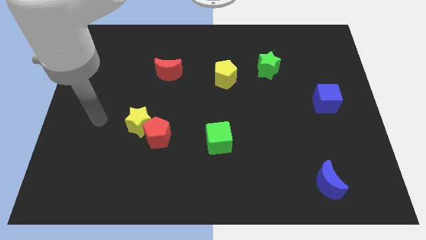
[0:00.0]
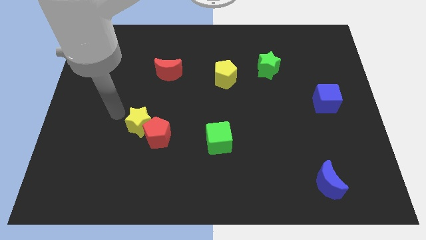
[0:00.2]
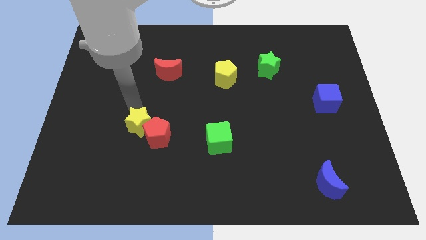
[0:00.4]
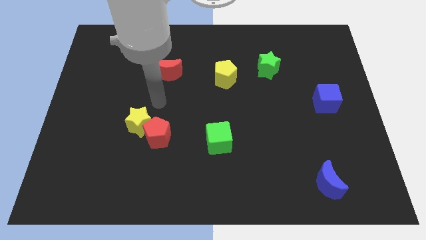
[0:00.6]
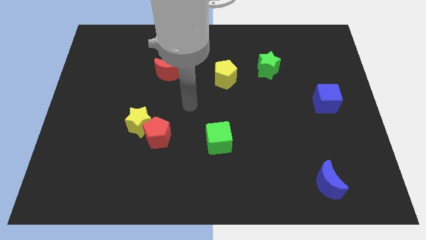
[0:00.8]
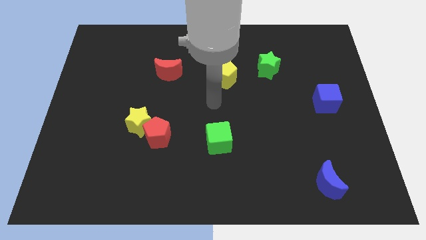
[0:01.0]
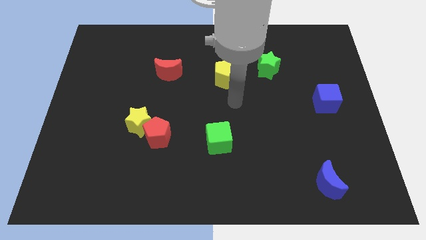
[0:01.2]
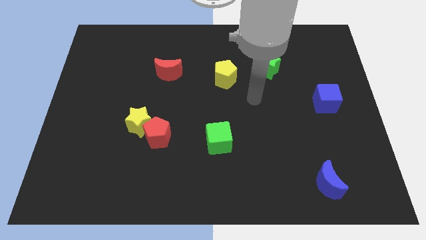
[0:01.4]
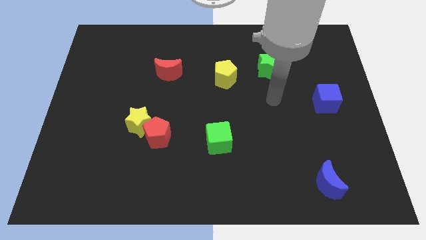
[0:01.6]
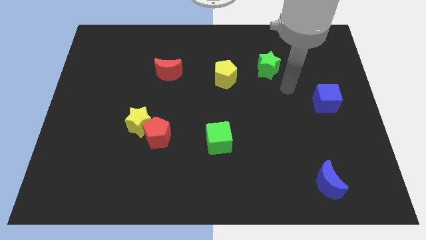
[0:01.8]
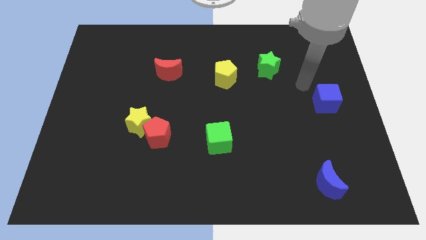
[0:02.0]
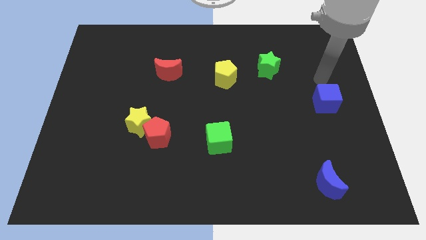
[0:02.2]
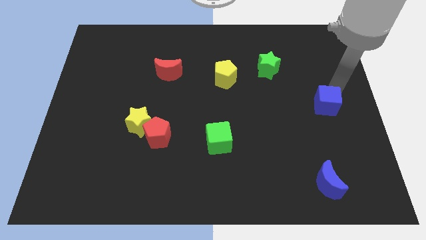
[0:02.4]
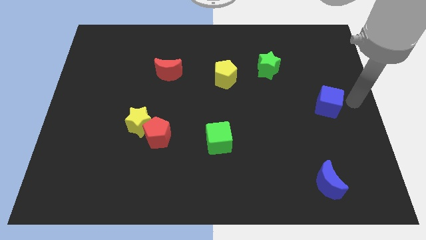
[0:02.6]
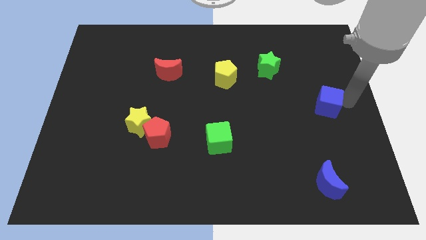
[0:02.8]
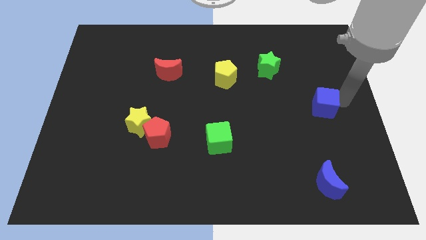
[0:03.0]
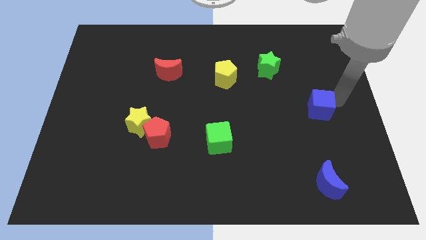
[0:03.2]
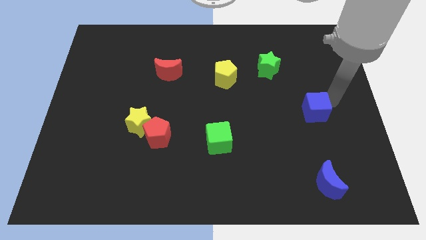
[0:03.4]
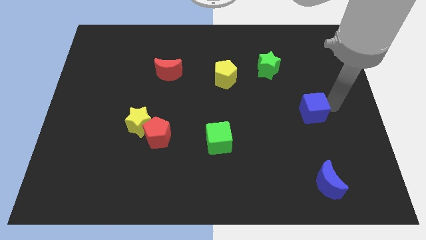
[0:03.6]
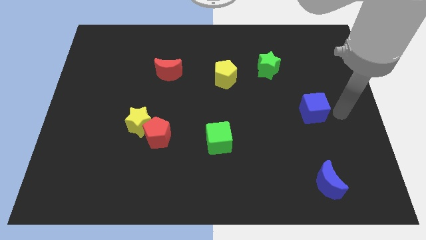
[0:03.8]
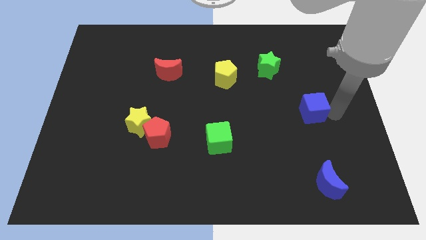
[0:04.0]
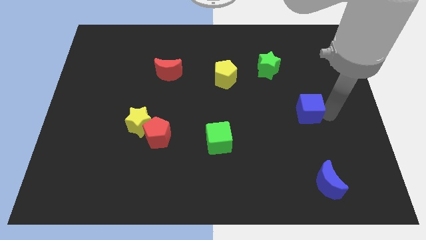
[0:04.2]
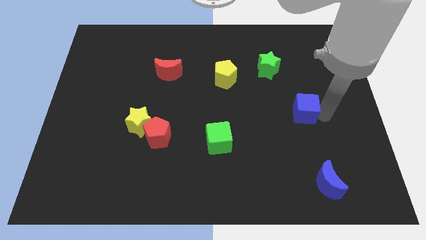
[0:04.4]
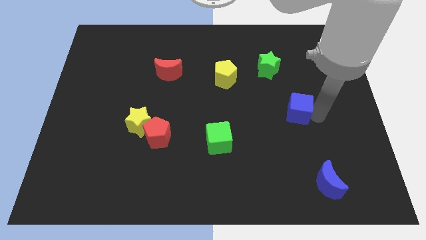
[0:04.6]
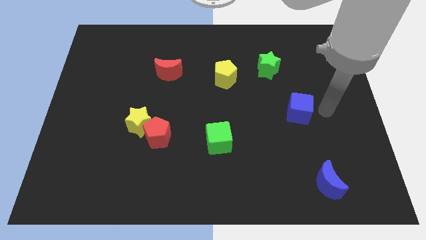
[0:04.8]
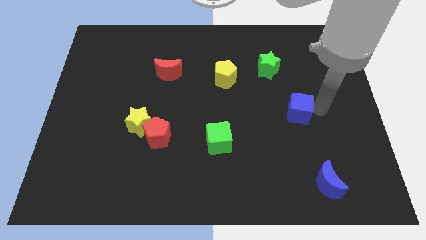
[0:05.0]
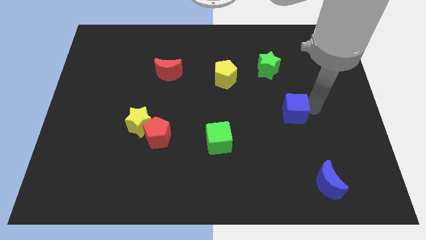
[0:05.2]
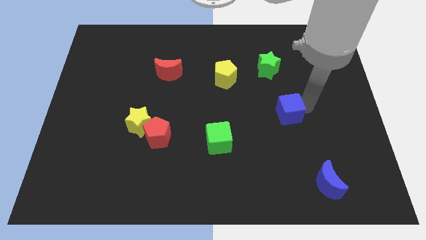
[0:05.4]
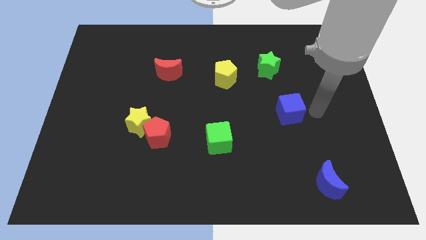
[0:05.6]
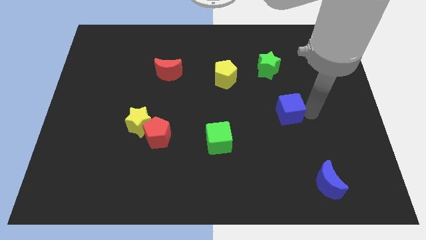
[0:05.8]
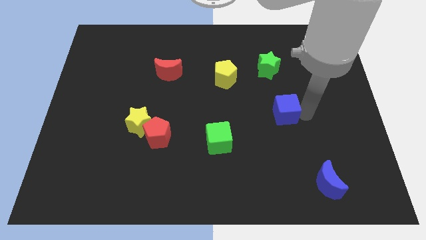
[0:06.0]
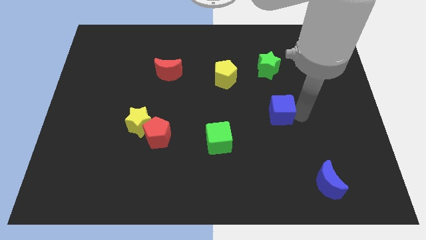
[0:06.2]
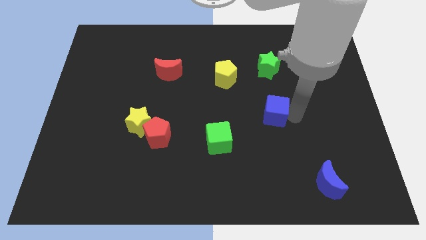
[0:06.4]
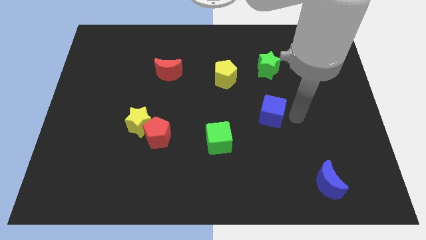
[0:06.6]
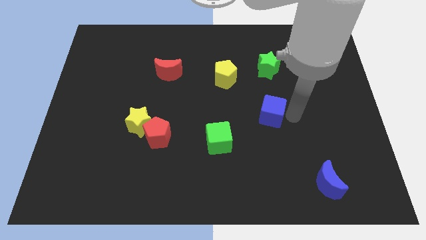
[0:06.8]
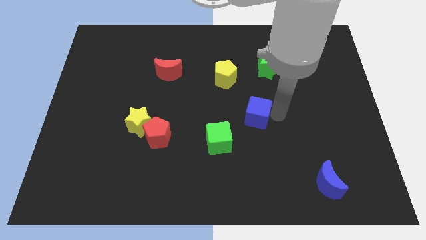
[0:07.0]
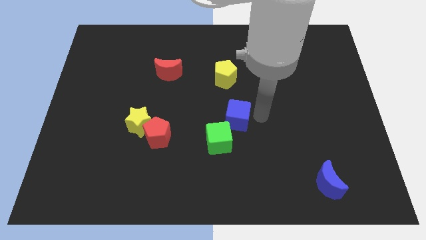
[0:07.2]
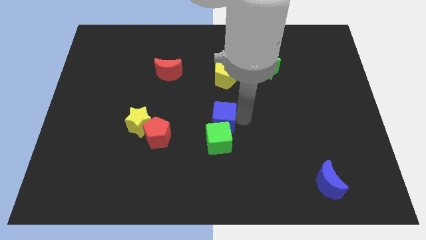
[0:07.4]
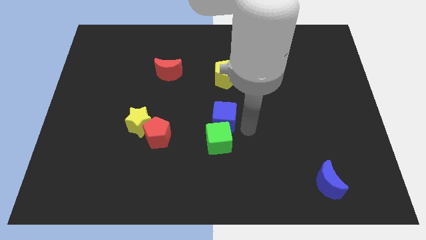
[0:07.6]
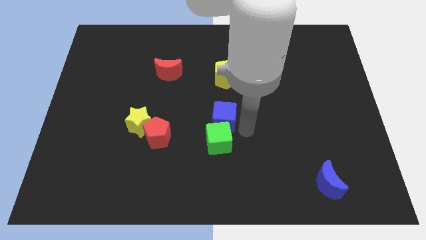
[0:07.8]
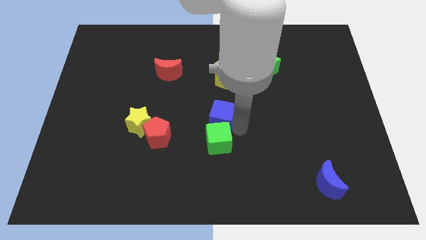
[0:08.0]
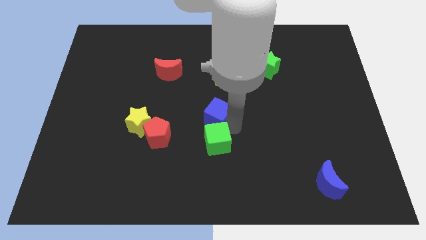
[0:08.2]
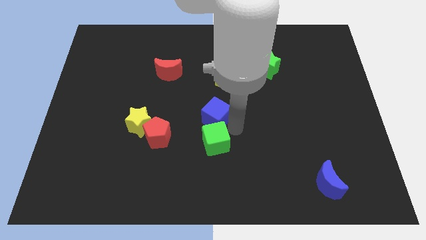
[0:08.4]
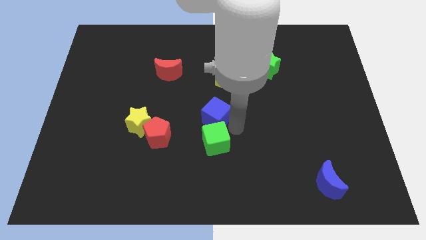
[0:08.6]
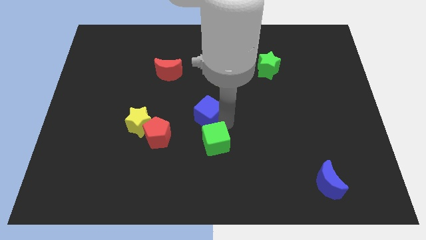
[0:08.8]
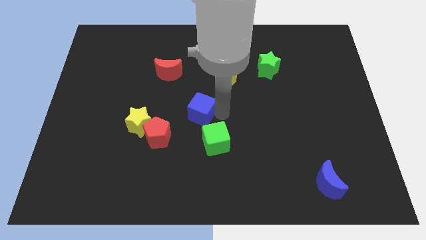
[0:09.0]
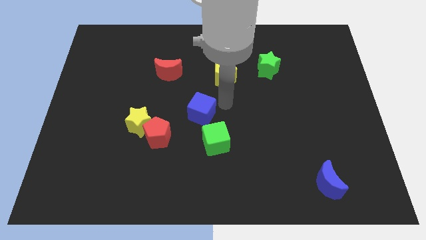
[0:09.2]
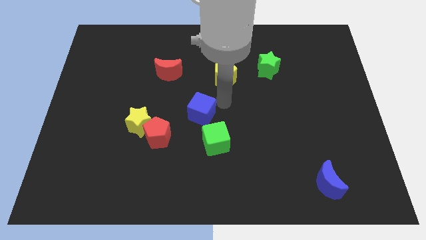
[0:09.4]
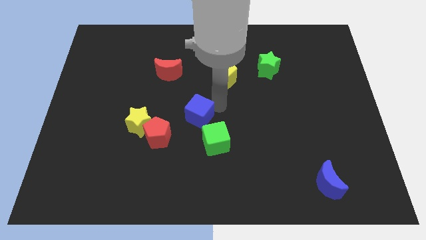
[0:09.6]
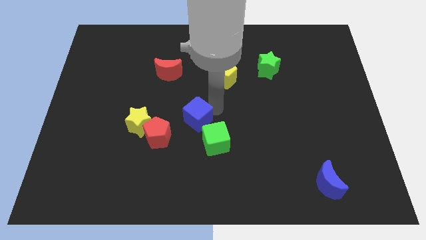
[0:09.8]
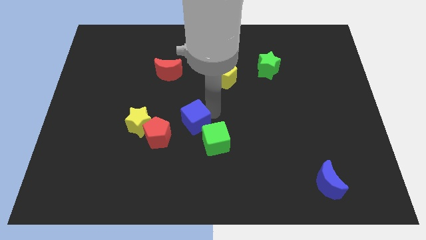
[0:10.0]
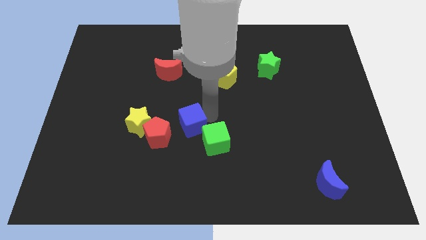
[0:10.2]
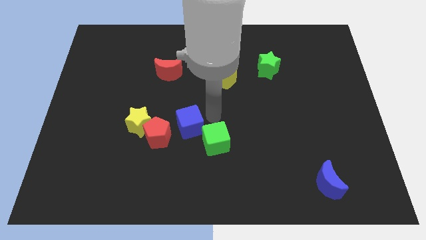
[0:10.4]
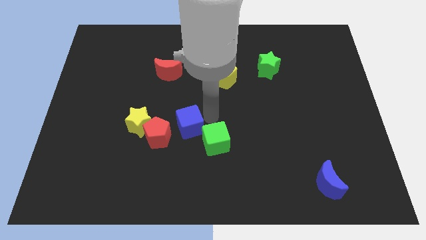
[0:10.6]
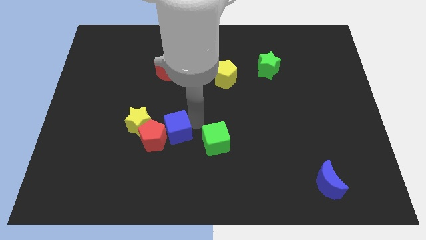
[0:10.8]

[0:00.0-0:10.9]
put the blue cube to the red pentagon

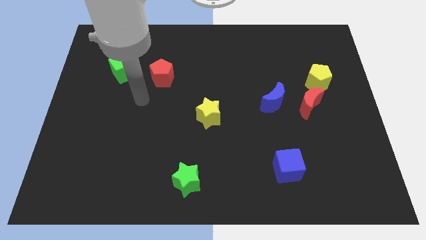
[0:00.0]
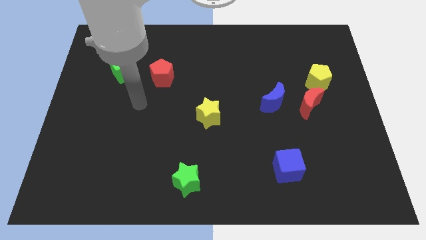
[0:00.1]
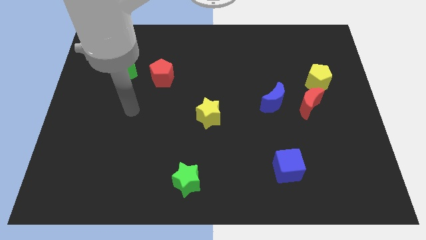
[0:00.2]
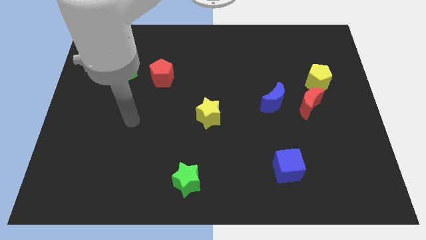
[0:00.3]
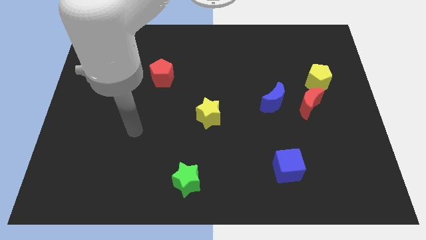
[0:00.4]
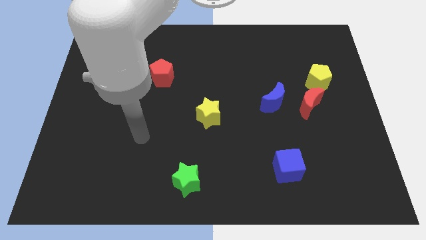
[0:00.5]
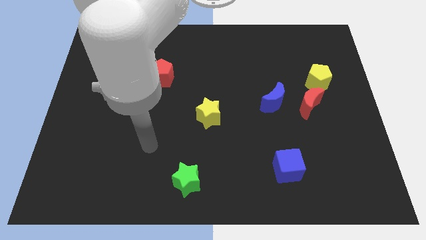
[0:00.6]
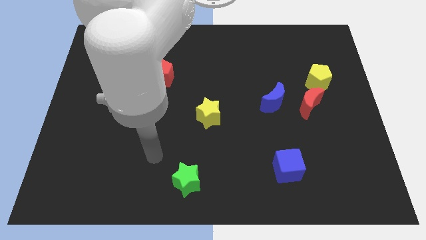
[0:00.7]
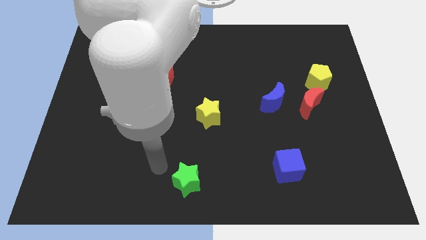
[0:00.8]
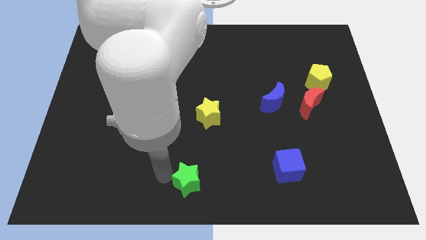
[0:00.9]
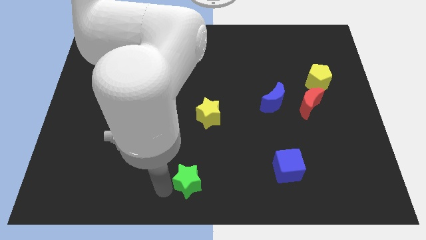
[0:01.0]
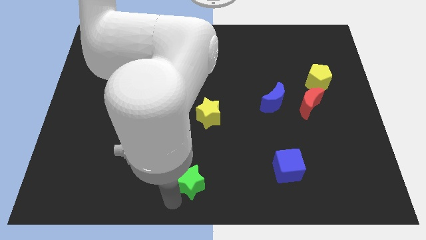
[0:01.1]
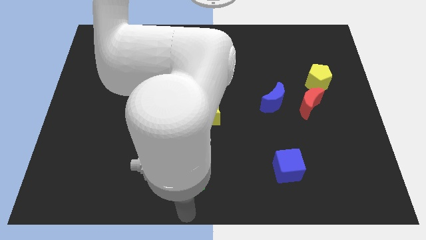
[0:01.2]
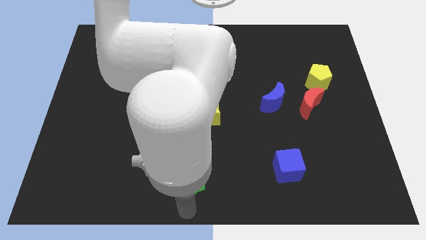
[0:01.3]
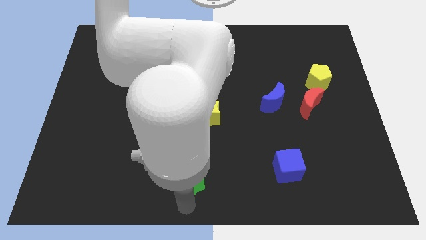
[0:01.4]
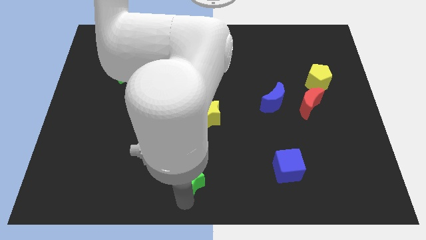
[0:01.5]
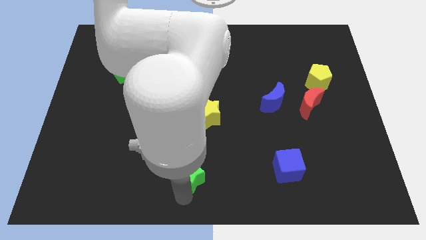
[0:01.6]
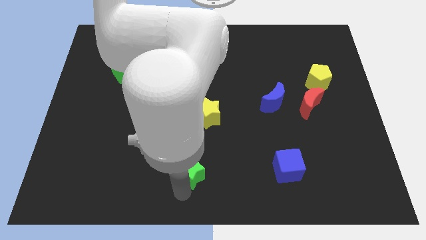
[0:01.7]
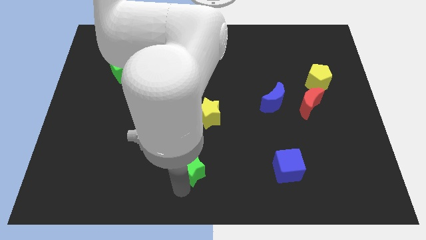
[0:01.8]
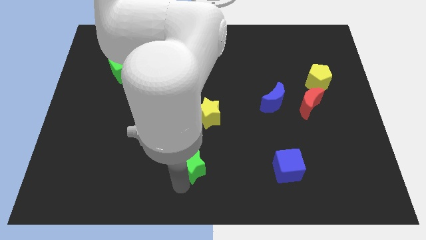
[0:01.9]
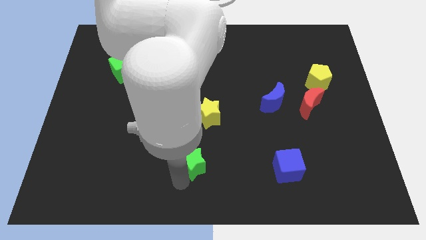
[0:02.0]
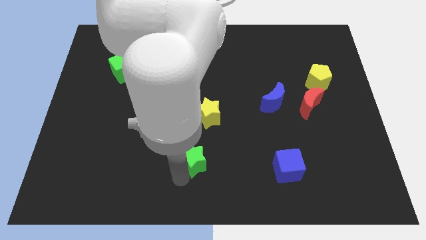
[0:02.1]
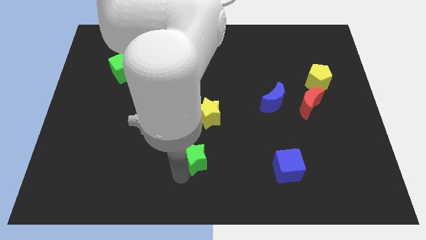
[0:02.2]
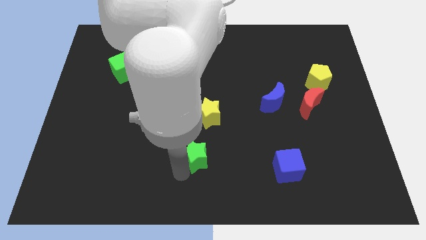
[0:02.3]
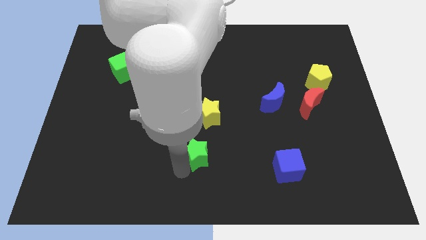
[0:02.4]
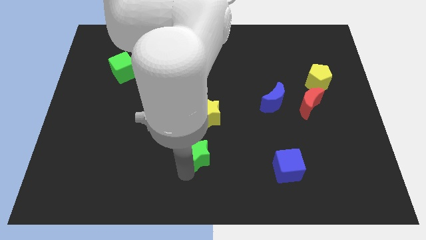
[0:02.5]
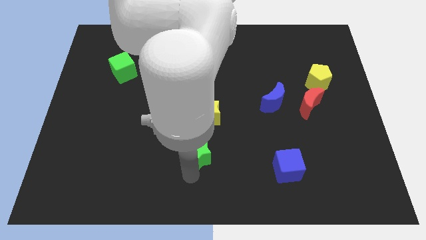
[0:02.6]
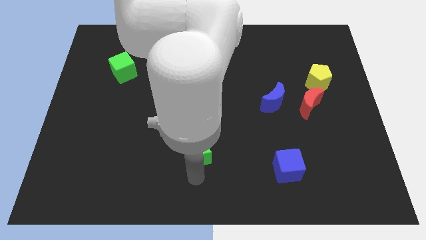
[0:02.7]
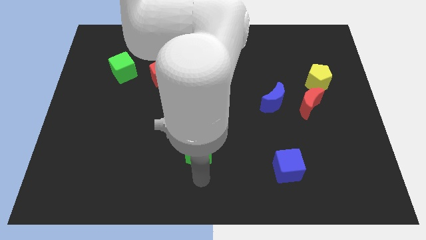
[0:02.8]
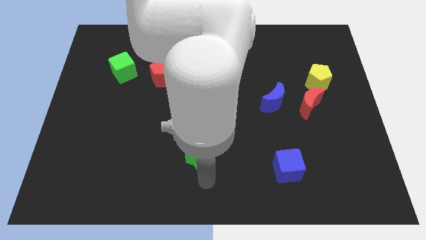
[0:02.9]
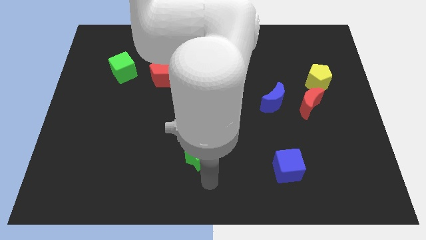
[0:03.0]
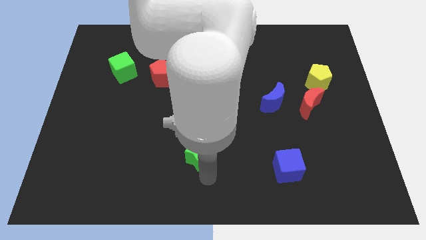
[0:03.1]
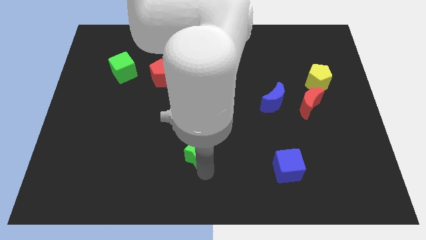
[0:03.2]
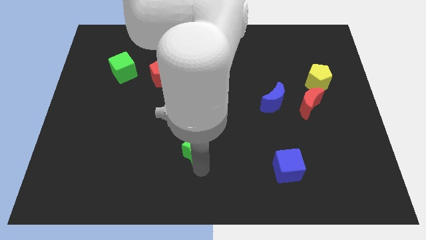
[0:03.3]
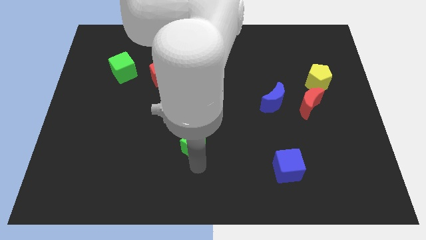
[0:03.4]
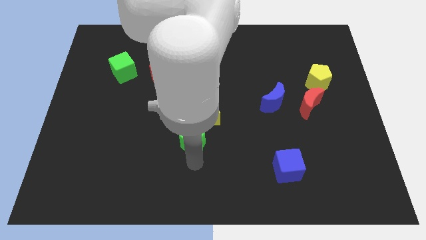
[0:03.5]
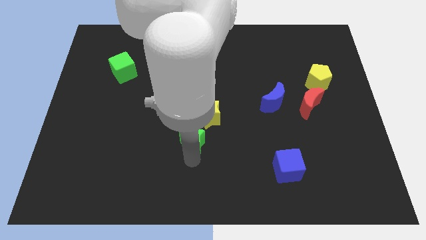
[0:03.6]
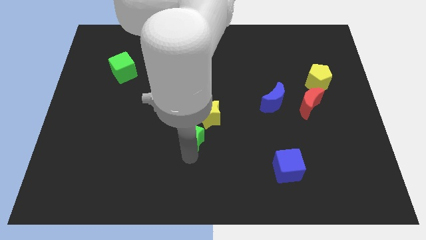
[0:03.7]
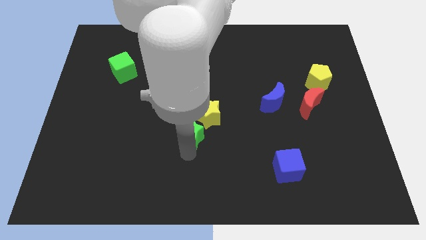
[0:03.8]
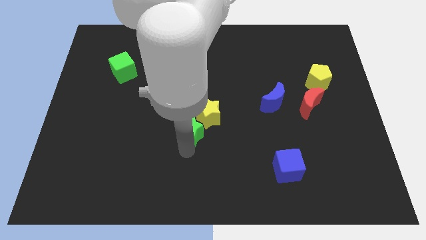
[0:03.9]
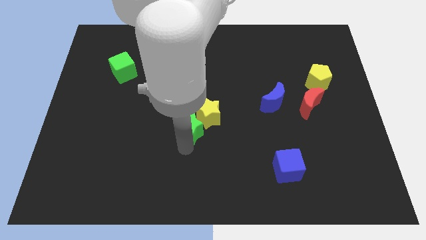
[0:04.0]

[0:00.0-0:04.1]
move the green star close to the yellow star
